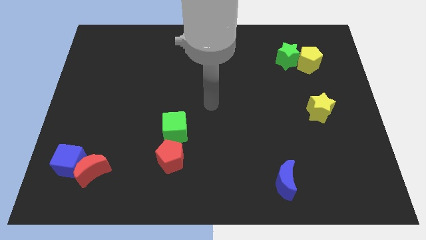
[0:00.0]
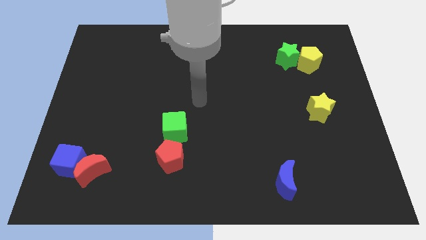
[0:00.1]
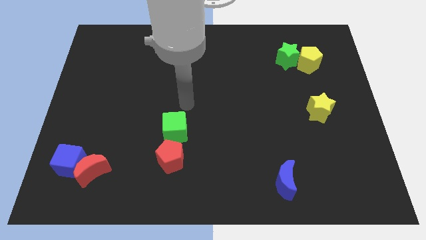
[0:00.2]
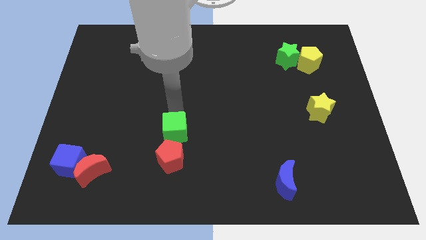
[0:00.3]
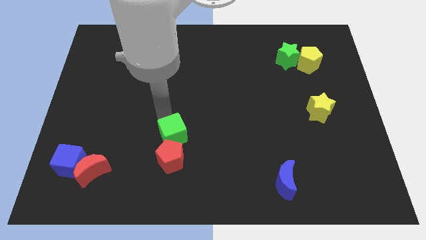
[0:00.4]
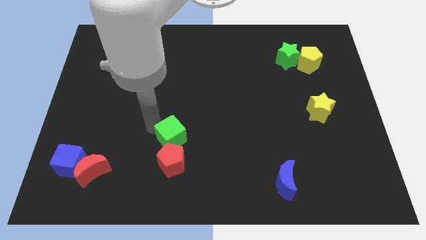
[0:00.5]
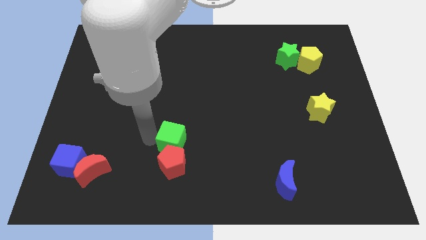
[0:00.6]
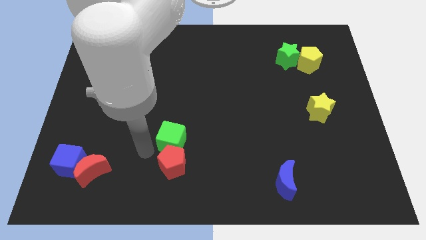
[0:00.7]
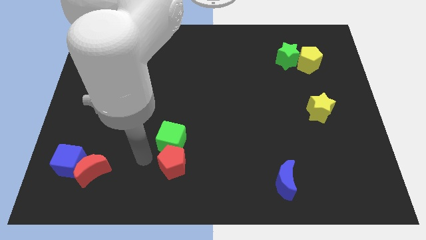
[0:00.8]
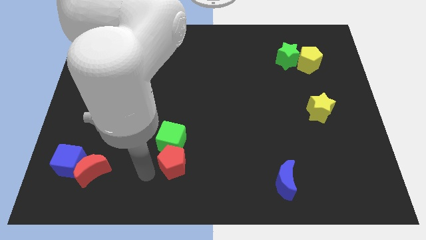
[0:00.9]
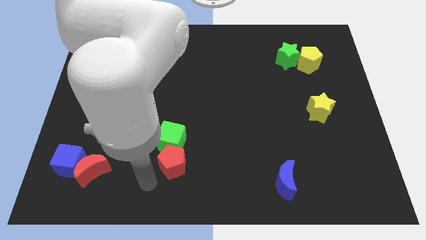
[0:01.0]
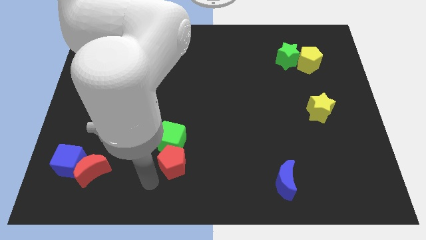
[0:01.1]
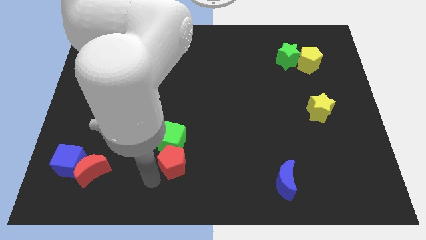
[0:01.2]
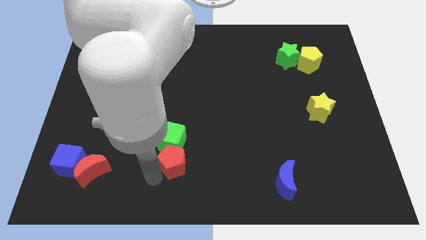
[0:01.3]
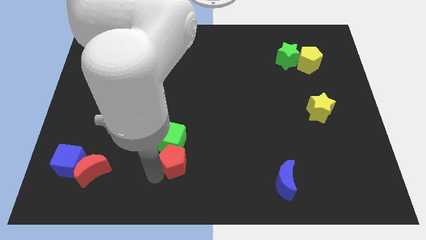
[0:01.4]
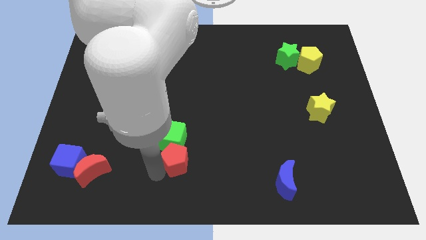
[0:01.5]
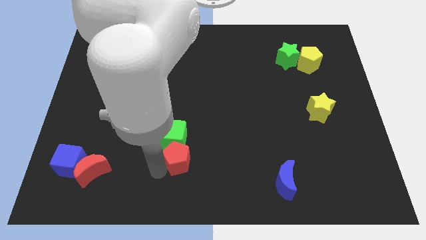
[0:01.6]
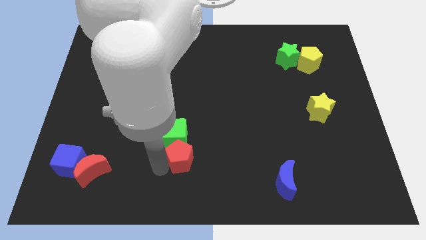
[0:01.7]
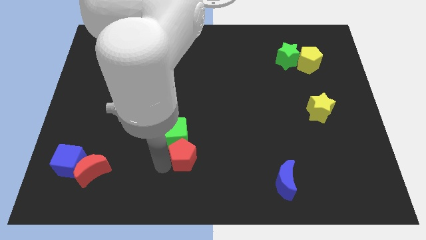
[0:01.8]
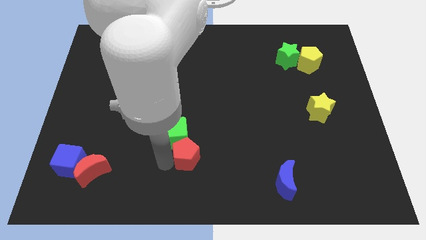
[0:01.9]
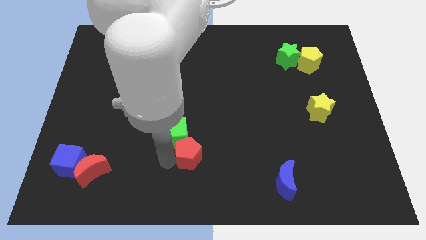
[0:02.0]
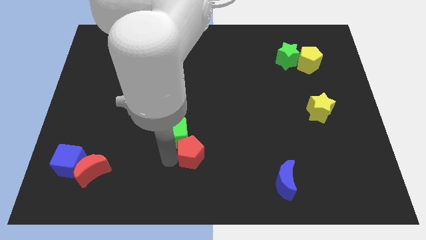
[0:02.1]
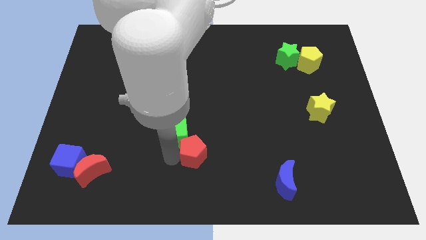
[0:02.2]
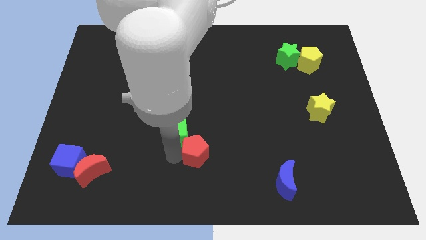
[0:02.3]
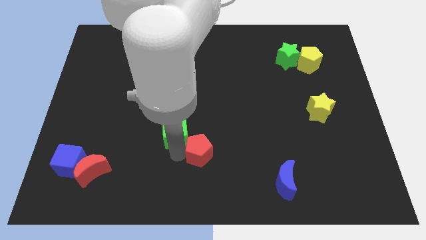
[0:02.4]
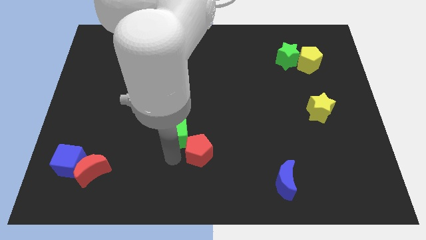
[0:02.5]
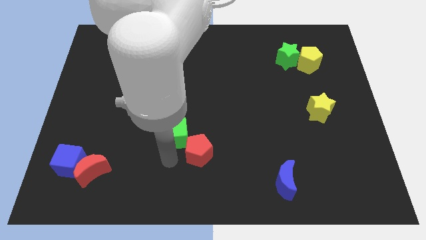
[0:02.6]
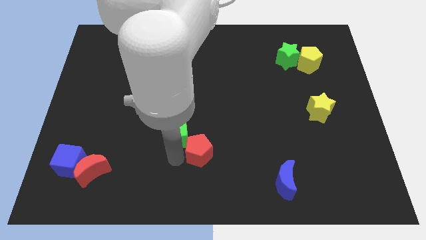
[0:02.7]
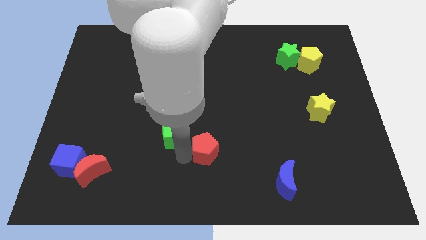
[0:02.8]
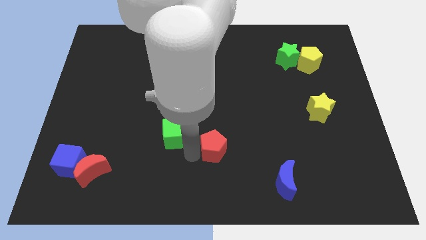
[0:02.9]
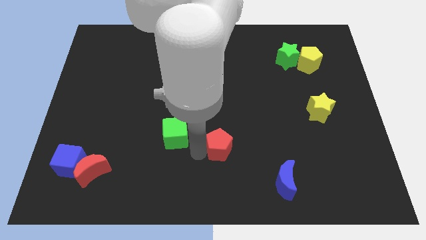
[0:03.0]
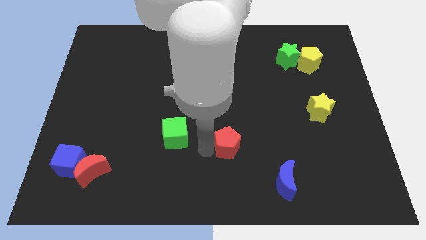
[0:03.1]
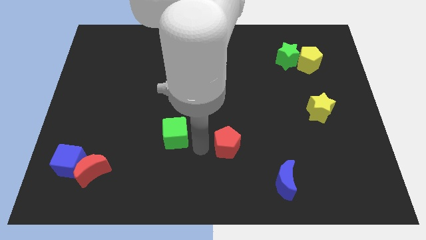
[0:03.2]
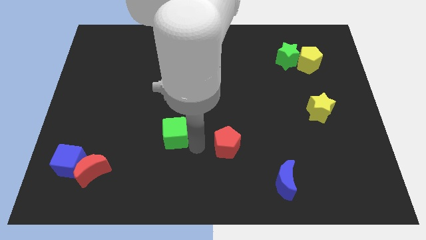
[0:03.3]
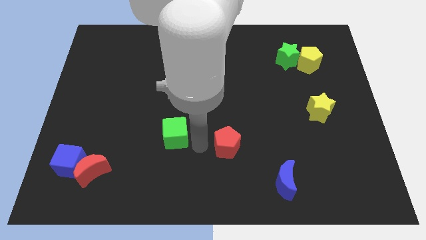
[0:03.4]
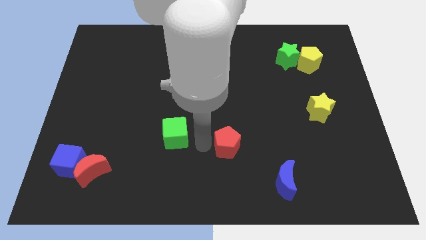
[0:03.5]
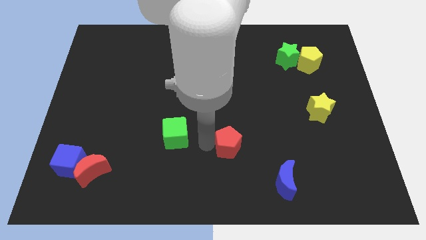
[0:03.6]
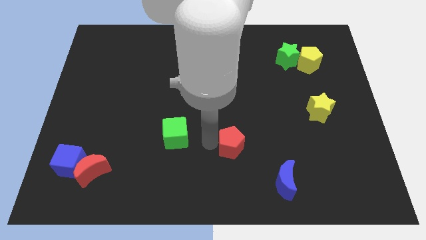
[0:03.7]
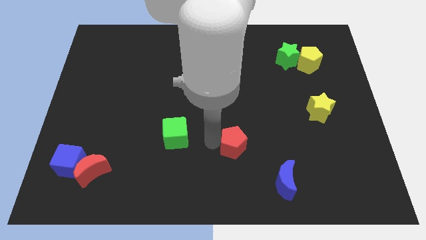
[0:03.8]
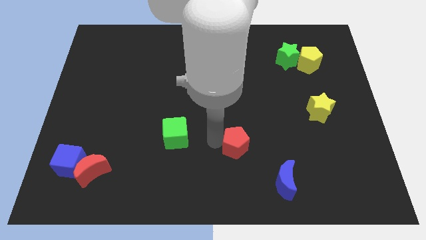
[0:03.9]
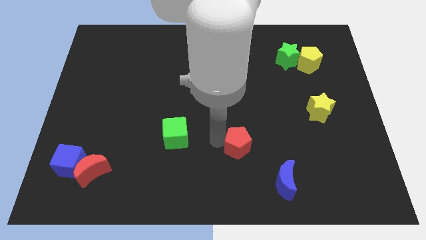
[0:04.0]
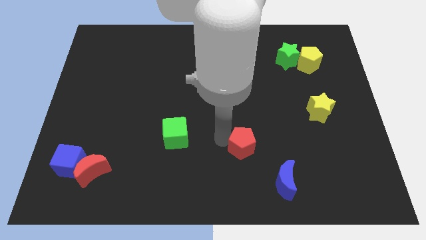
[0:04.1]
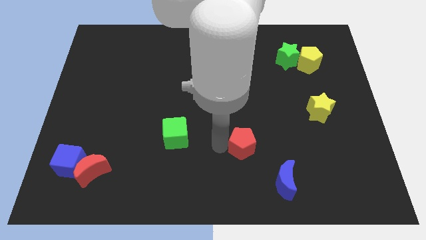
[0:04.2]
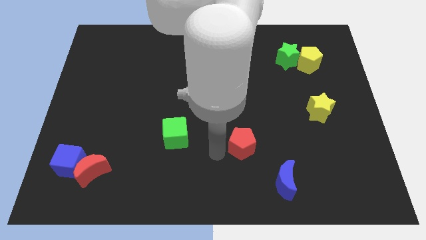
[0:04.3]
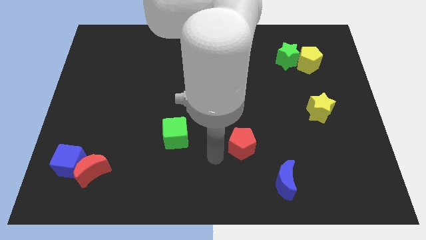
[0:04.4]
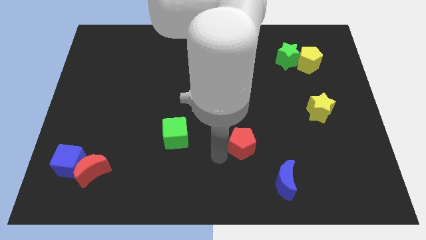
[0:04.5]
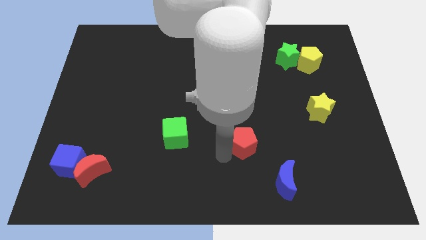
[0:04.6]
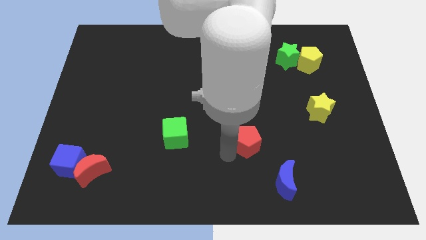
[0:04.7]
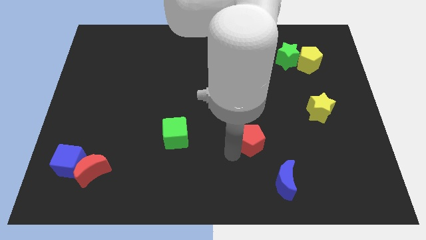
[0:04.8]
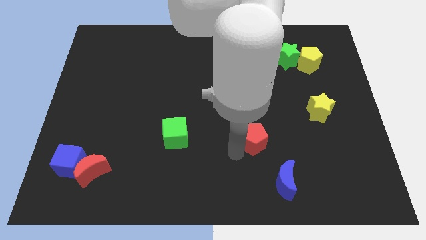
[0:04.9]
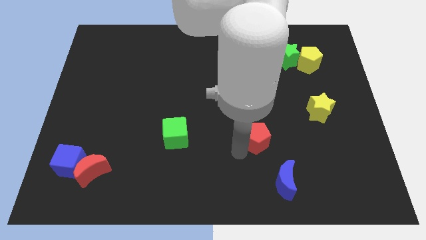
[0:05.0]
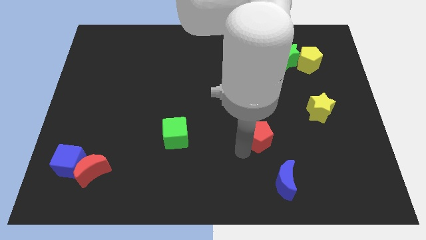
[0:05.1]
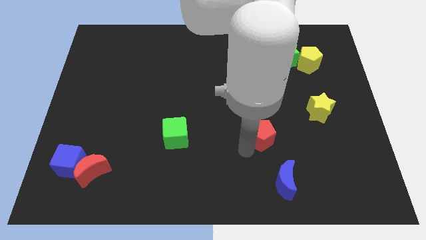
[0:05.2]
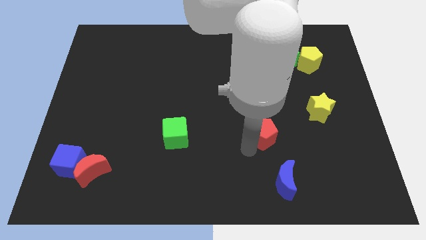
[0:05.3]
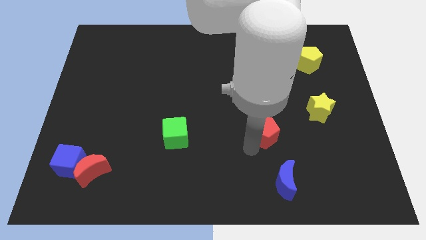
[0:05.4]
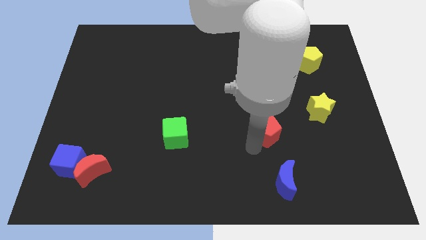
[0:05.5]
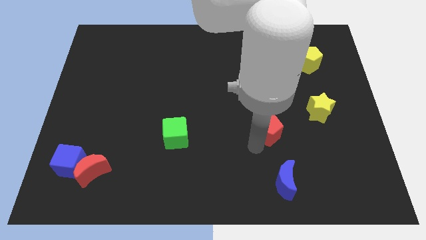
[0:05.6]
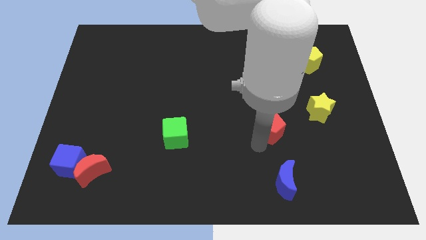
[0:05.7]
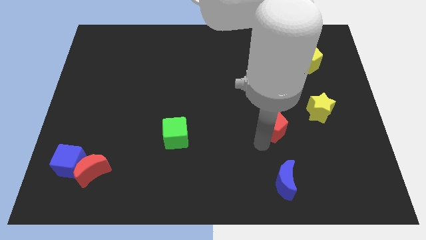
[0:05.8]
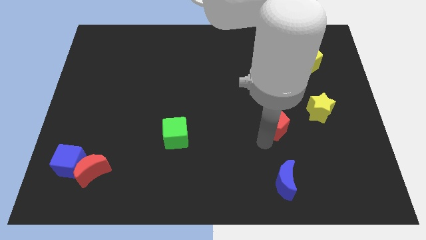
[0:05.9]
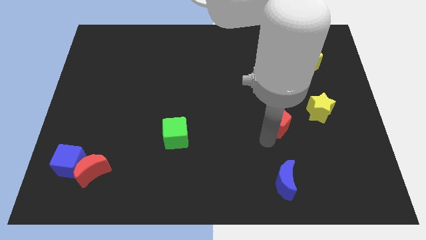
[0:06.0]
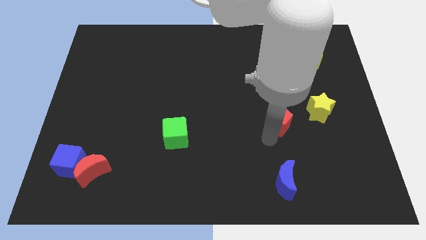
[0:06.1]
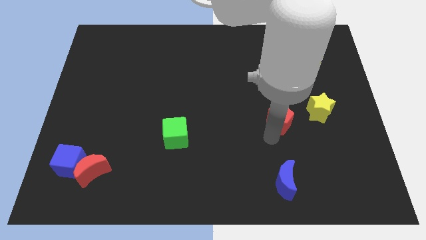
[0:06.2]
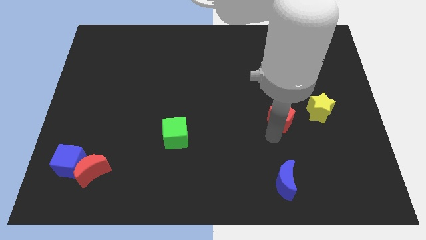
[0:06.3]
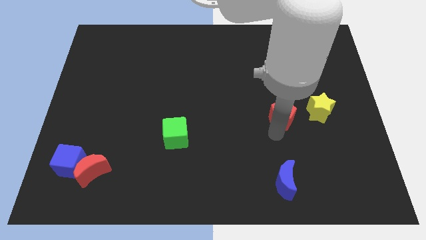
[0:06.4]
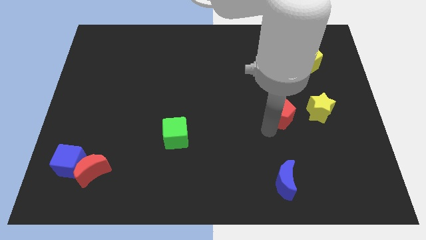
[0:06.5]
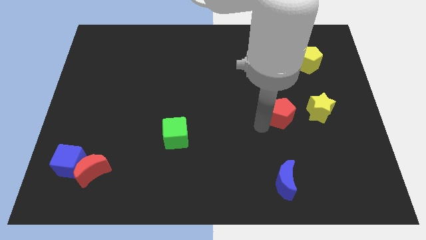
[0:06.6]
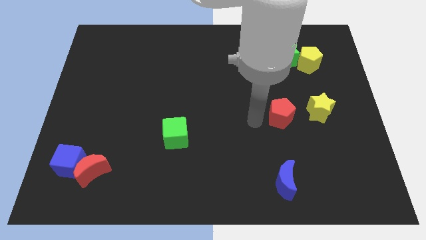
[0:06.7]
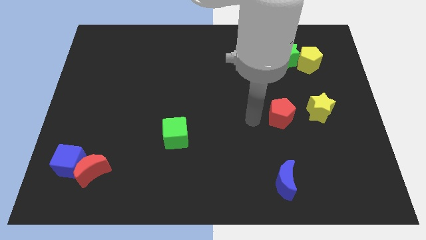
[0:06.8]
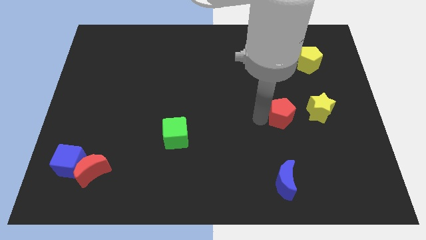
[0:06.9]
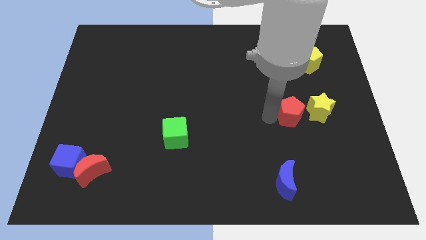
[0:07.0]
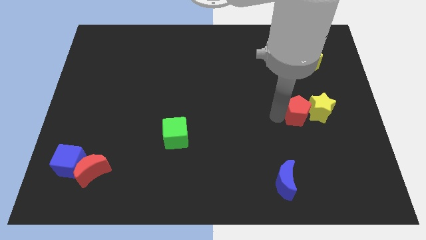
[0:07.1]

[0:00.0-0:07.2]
push the red pentagon next to the yellow star
